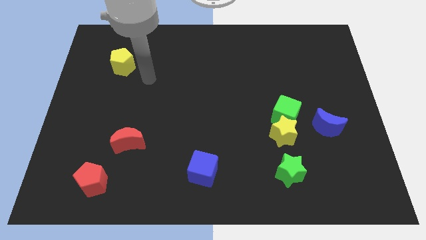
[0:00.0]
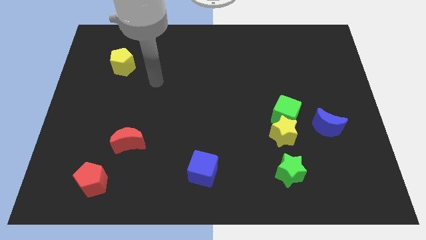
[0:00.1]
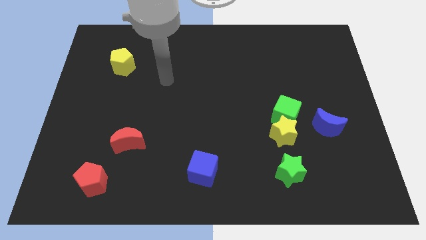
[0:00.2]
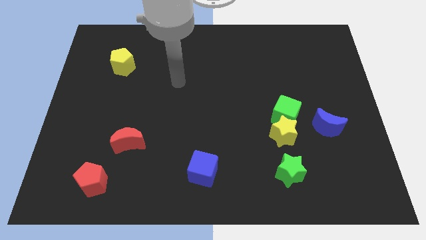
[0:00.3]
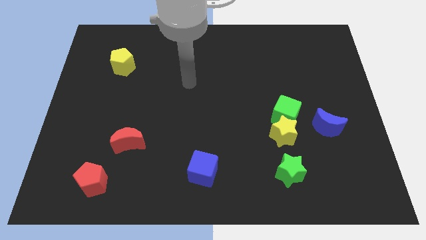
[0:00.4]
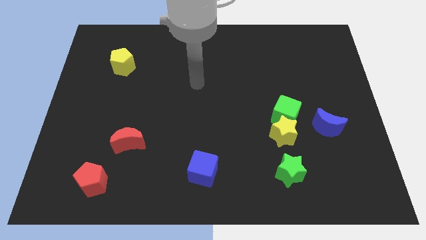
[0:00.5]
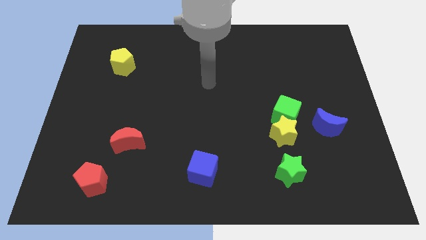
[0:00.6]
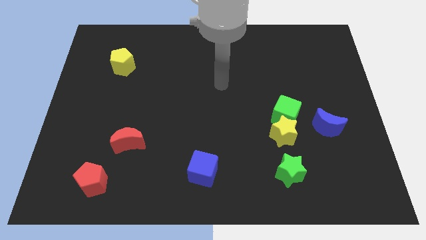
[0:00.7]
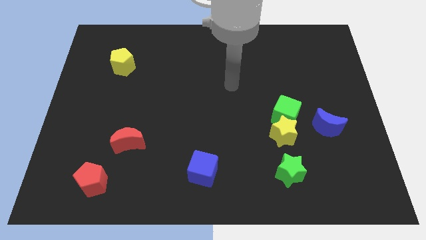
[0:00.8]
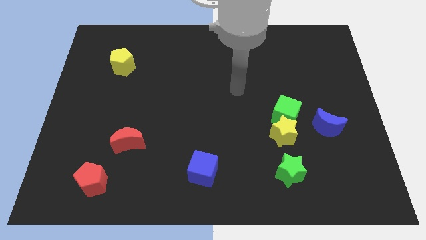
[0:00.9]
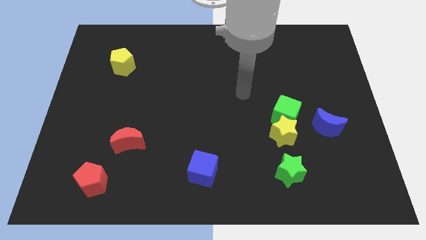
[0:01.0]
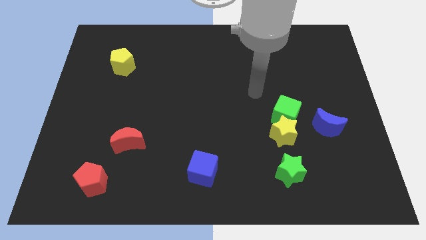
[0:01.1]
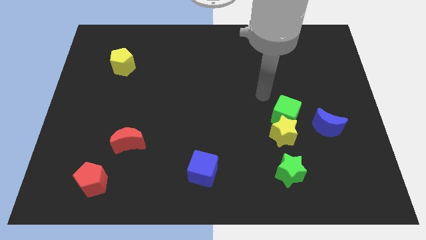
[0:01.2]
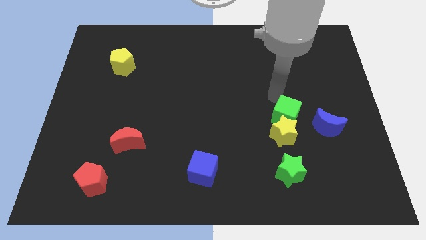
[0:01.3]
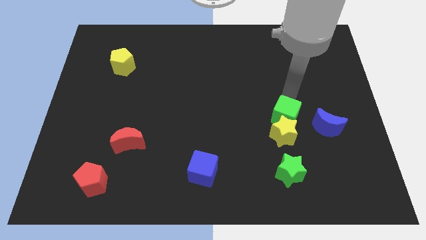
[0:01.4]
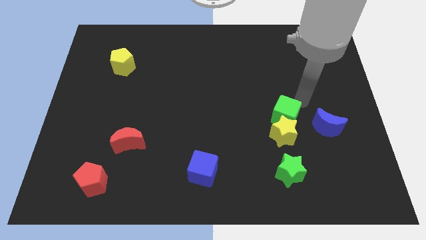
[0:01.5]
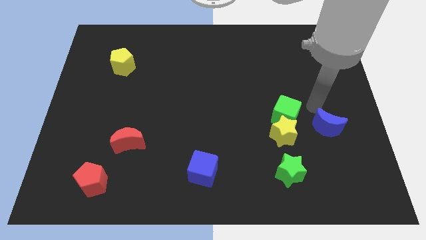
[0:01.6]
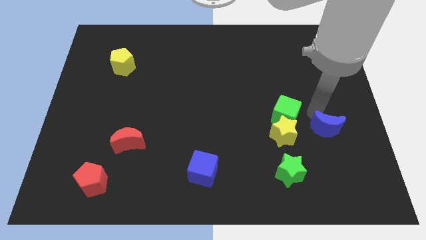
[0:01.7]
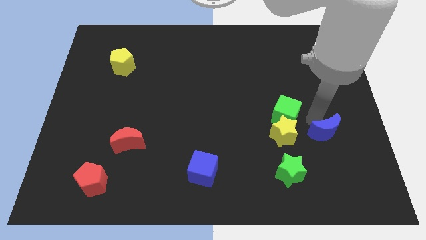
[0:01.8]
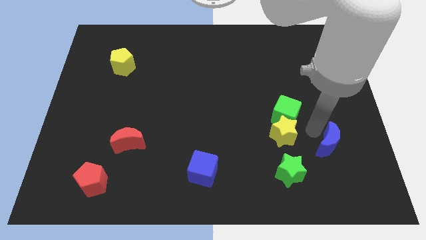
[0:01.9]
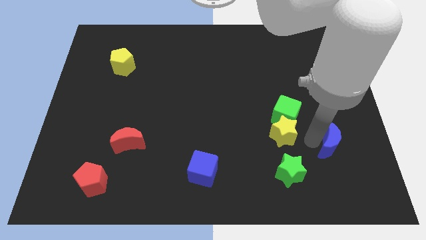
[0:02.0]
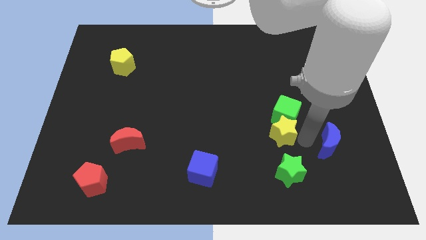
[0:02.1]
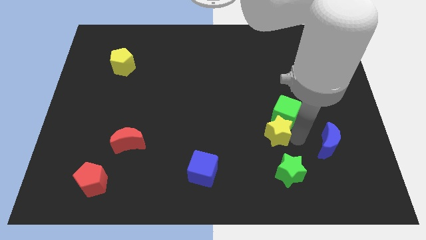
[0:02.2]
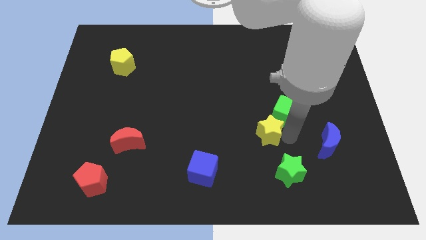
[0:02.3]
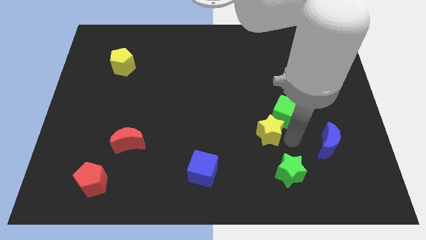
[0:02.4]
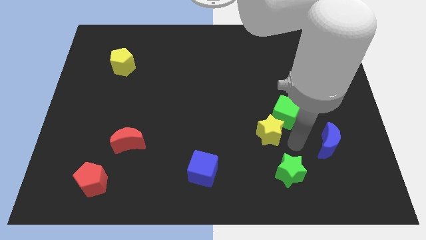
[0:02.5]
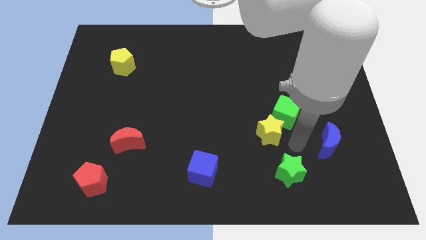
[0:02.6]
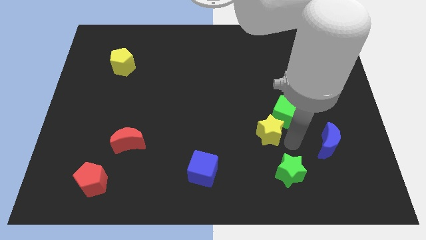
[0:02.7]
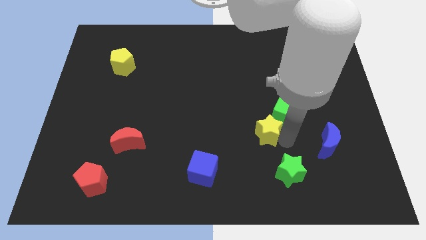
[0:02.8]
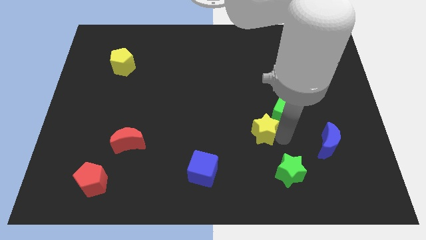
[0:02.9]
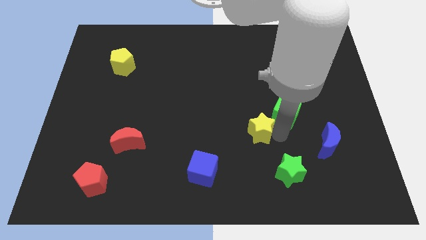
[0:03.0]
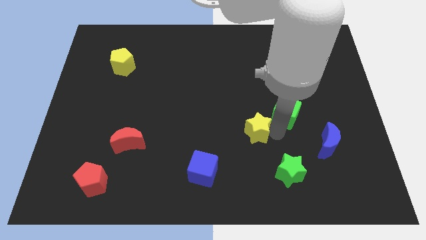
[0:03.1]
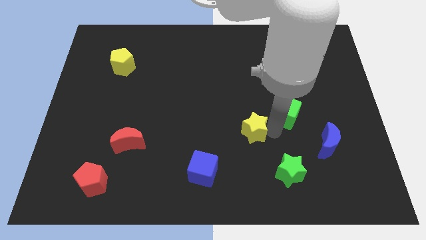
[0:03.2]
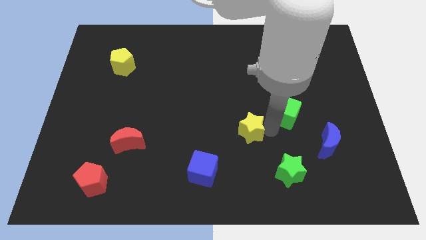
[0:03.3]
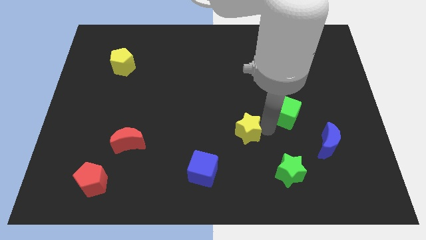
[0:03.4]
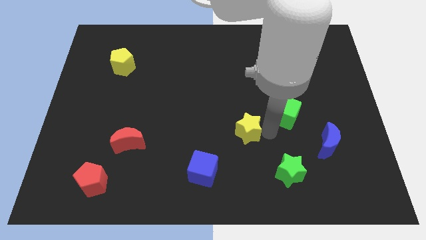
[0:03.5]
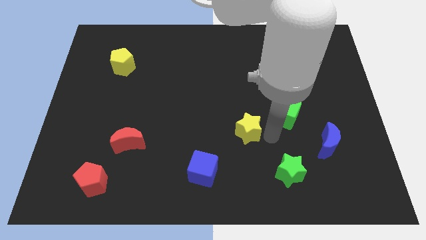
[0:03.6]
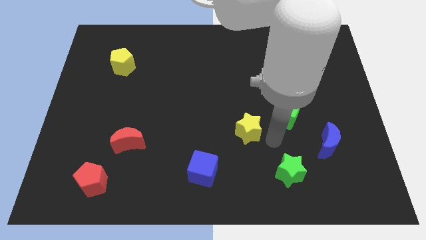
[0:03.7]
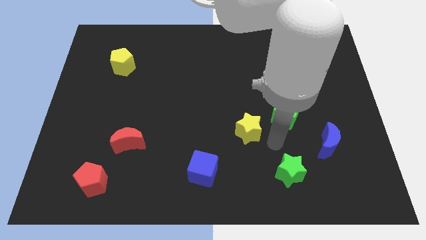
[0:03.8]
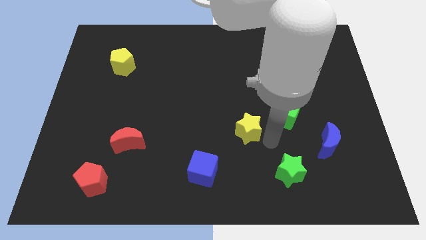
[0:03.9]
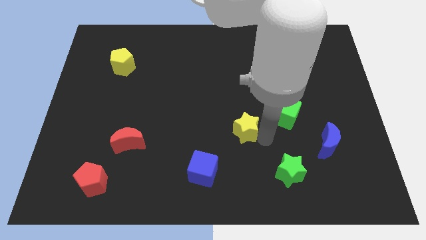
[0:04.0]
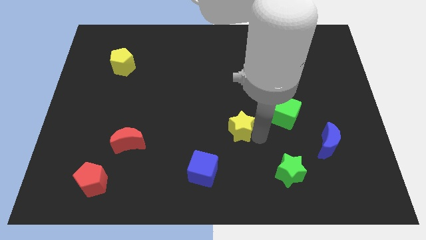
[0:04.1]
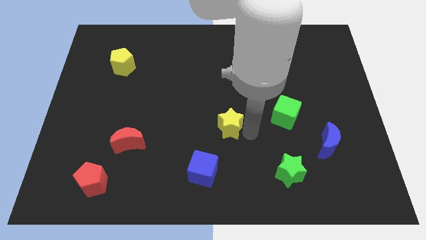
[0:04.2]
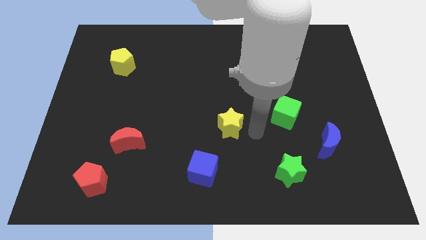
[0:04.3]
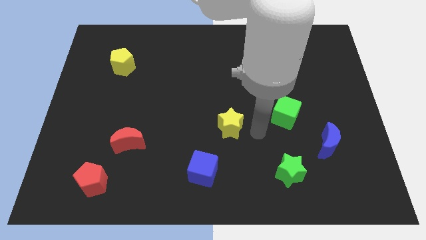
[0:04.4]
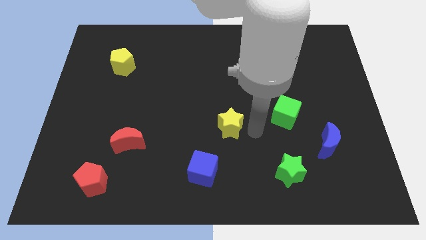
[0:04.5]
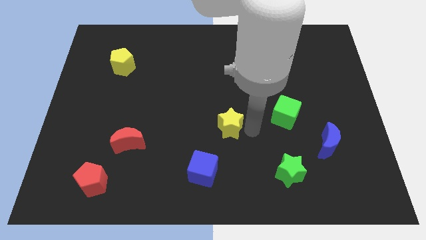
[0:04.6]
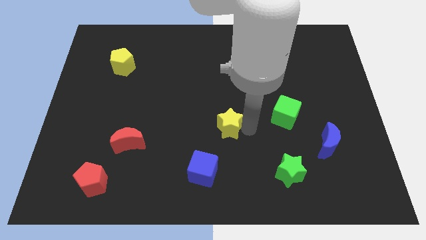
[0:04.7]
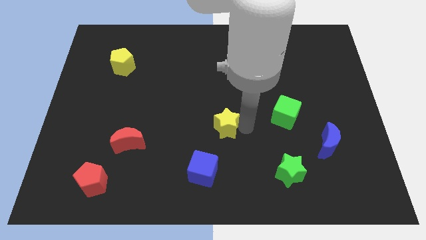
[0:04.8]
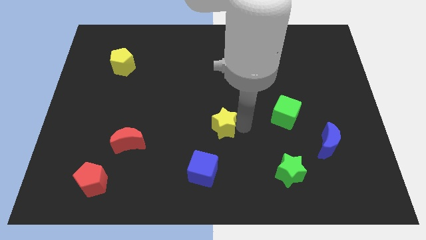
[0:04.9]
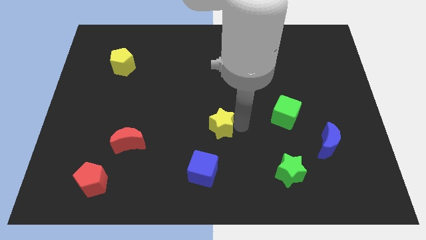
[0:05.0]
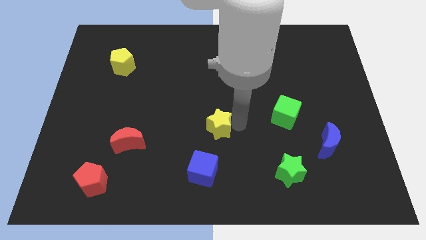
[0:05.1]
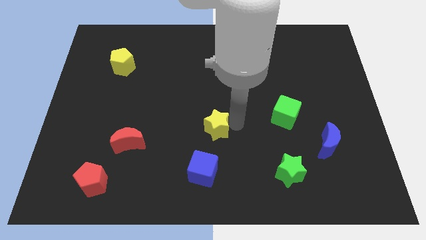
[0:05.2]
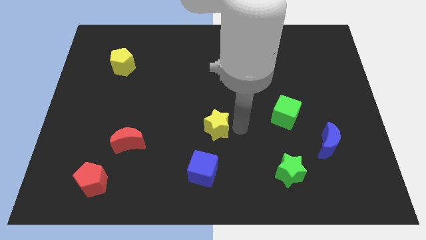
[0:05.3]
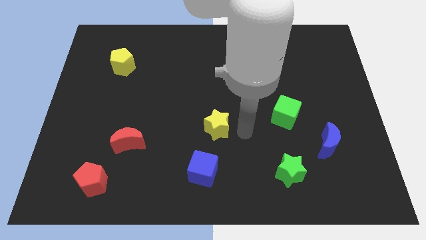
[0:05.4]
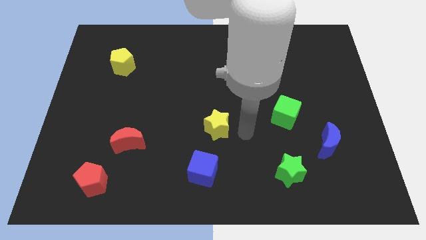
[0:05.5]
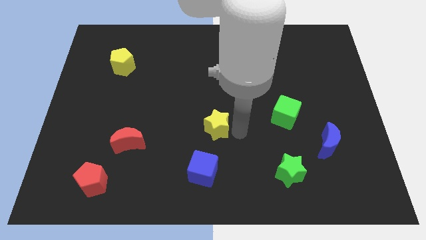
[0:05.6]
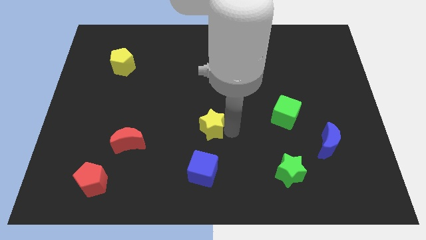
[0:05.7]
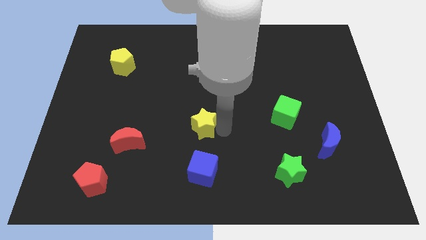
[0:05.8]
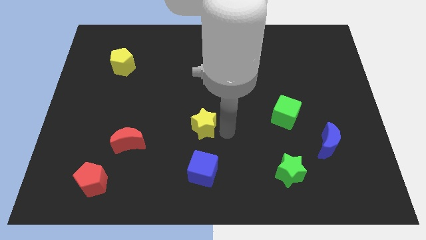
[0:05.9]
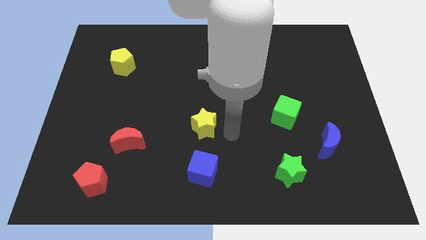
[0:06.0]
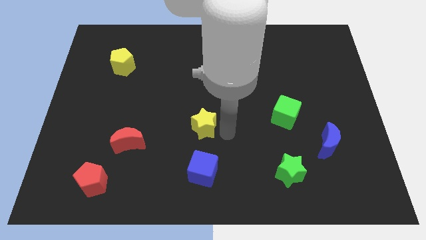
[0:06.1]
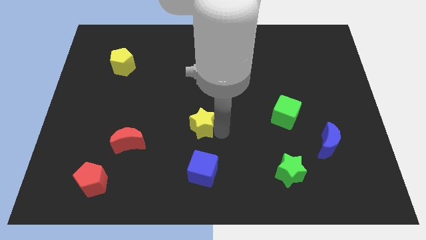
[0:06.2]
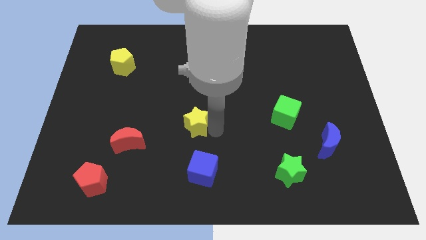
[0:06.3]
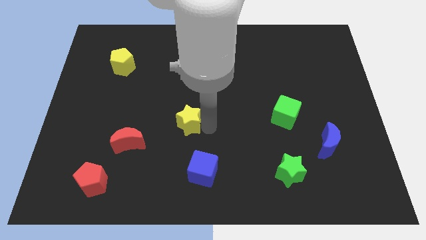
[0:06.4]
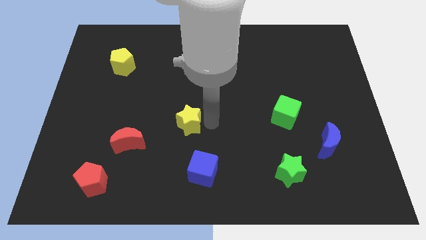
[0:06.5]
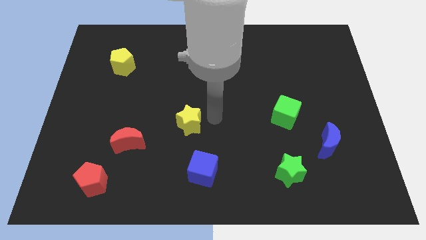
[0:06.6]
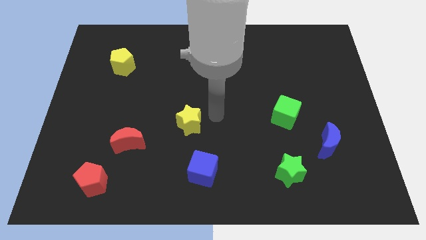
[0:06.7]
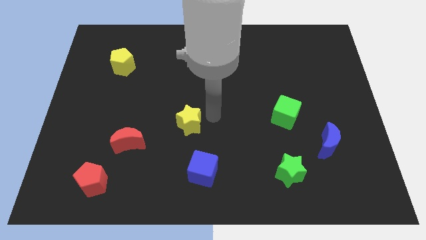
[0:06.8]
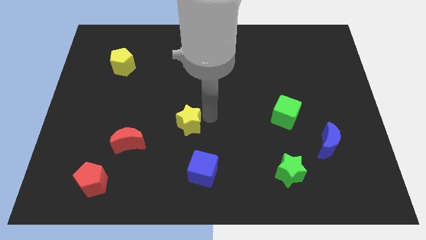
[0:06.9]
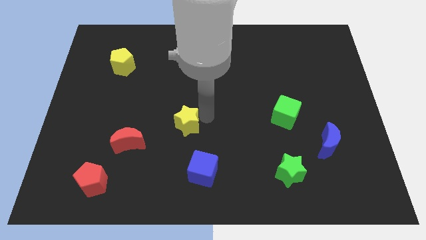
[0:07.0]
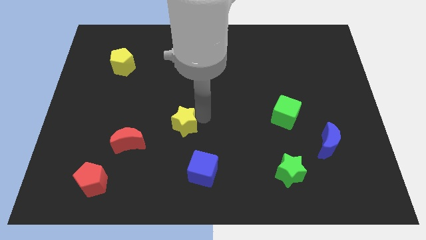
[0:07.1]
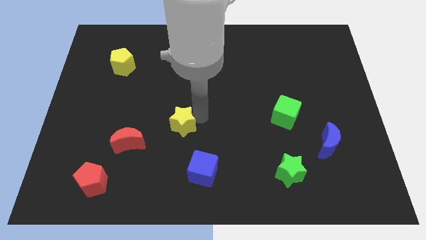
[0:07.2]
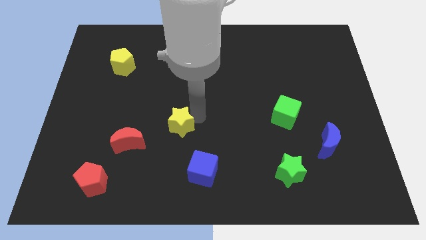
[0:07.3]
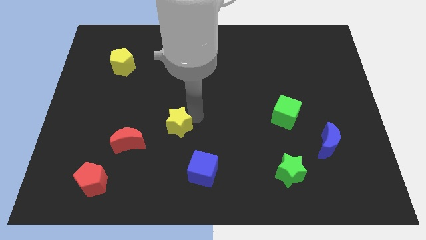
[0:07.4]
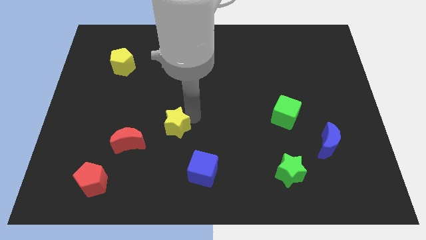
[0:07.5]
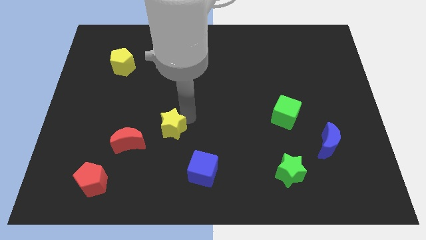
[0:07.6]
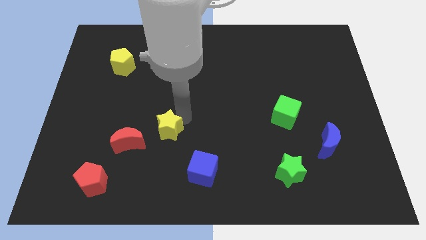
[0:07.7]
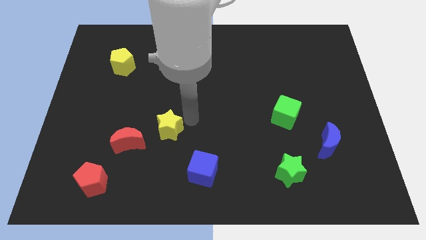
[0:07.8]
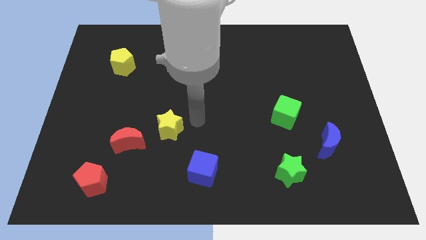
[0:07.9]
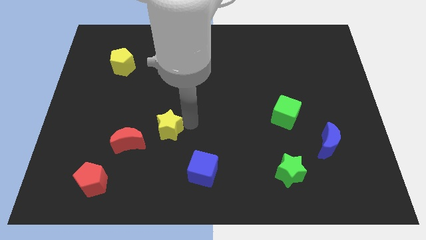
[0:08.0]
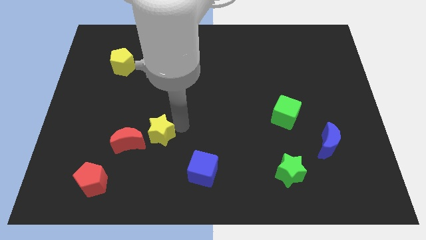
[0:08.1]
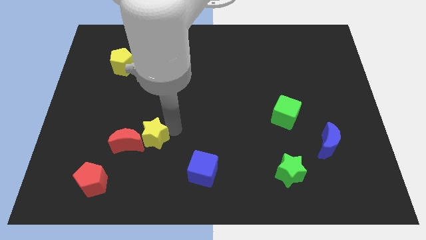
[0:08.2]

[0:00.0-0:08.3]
slide the yellow star close to the red moon

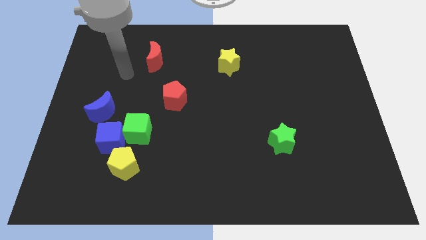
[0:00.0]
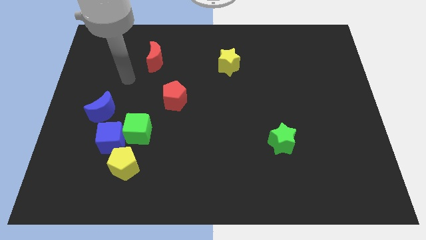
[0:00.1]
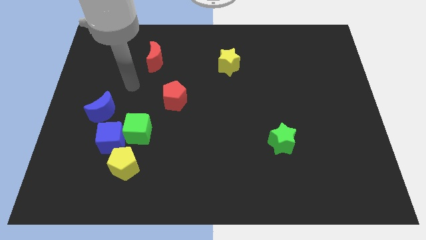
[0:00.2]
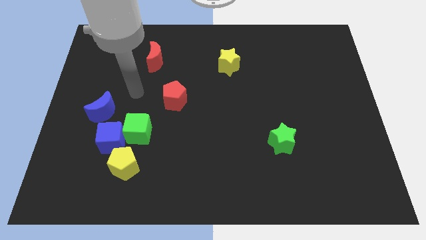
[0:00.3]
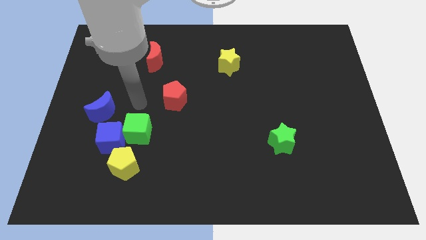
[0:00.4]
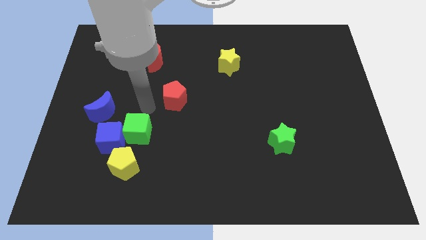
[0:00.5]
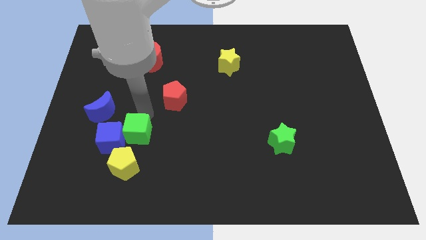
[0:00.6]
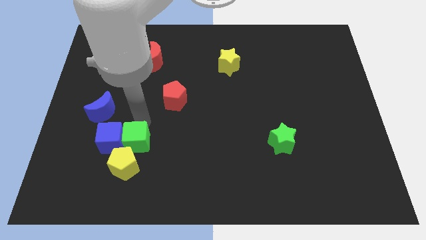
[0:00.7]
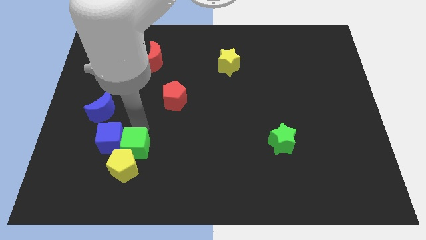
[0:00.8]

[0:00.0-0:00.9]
put the green cube close to the yellow pentagon
